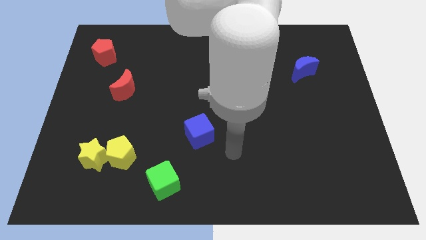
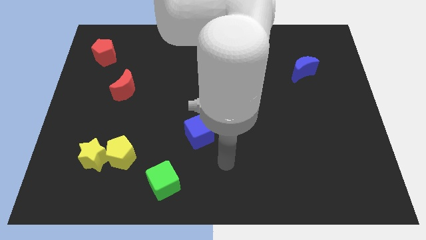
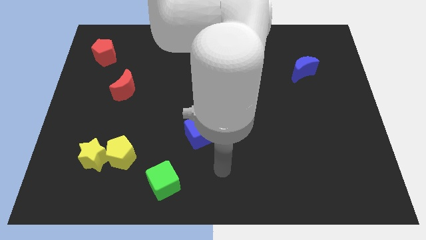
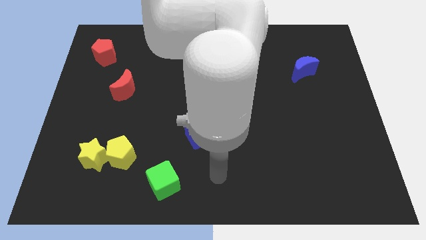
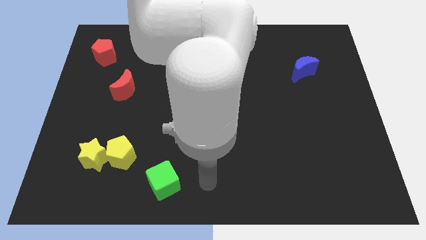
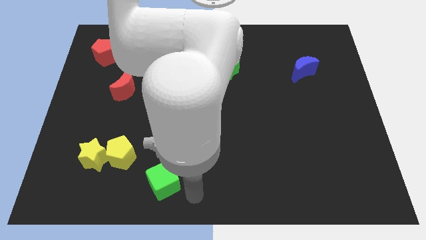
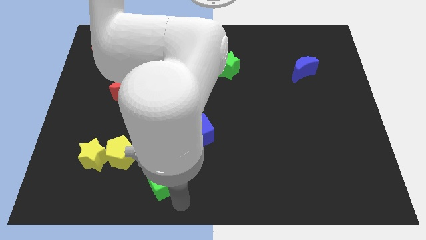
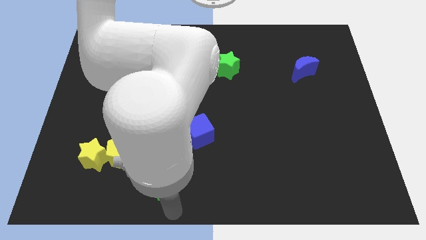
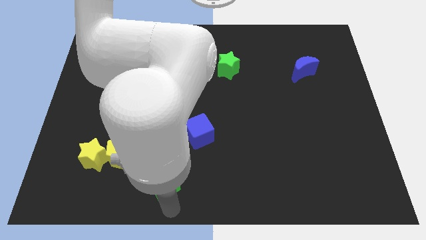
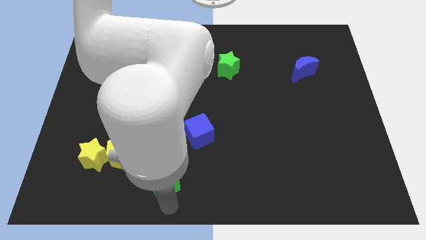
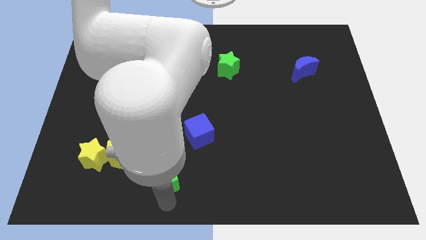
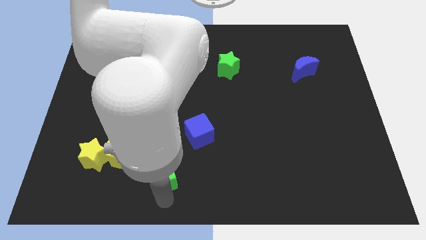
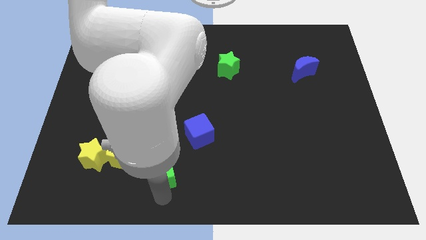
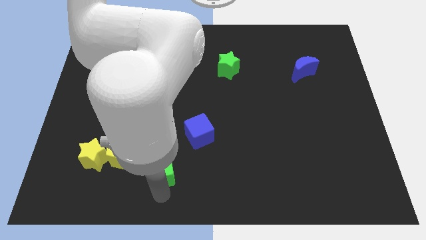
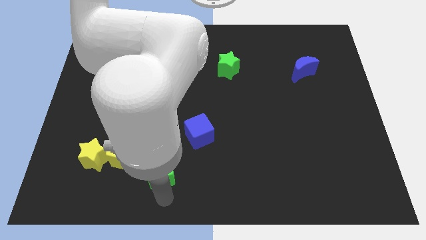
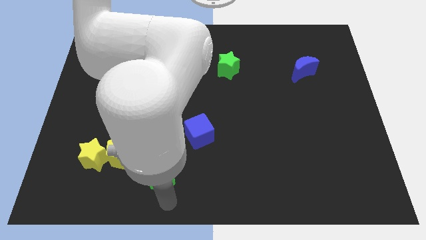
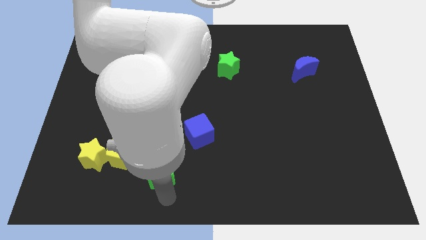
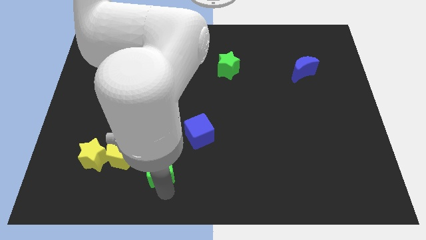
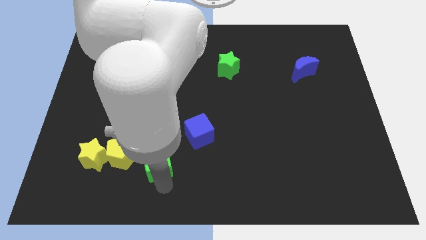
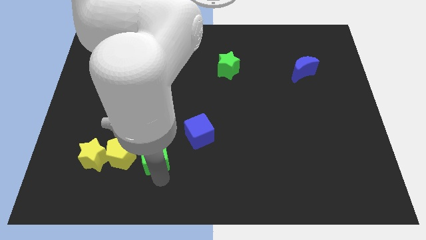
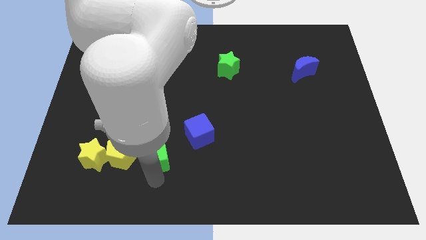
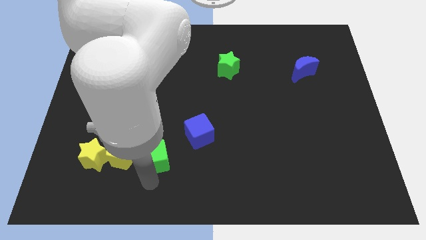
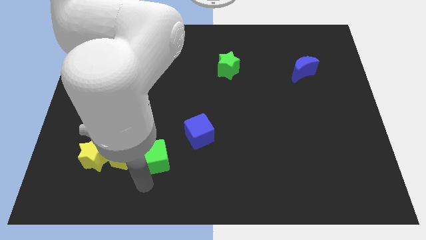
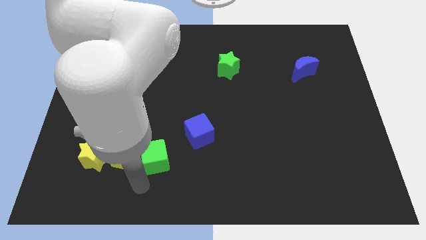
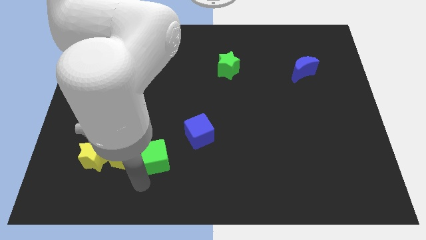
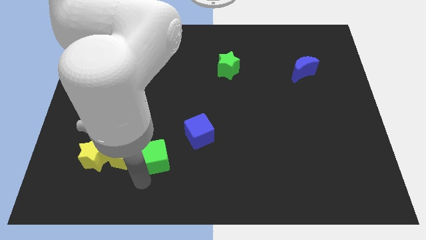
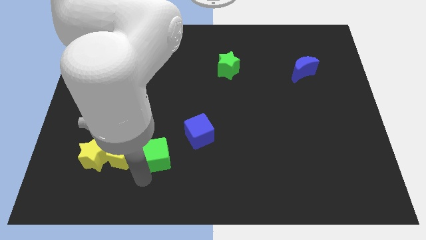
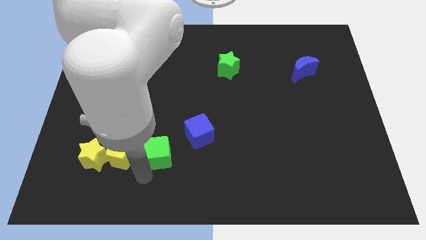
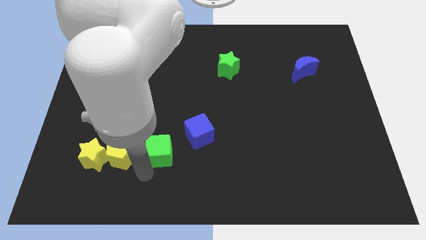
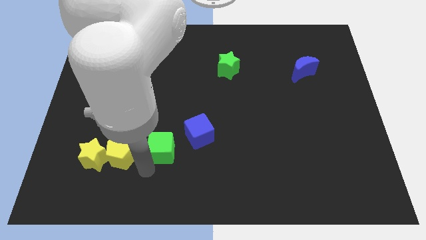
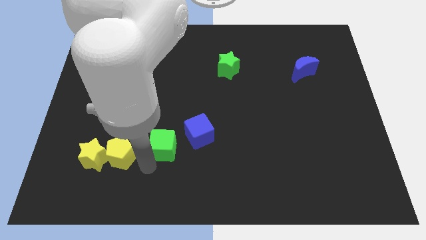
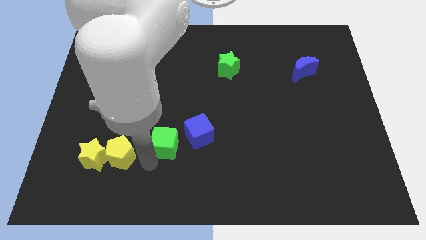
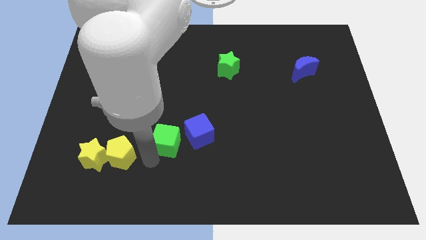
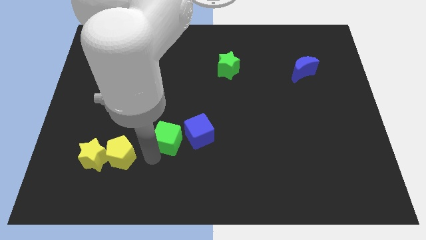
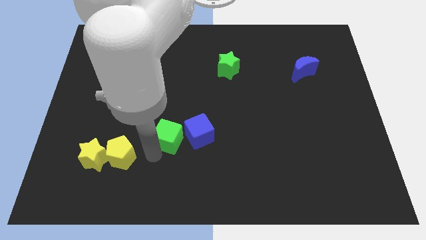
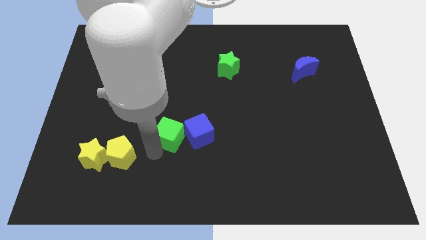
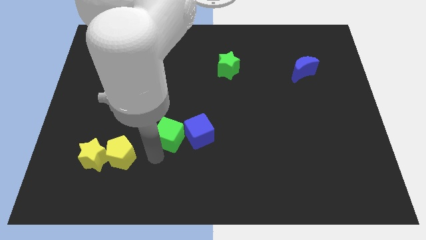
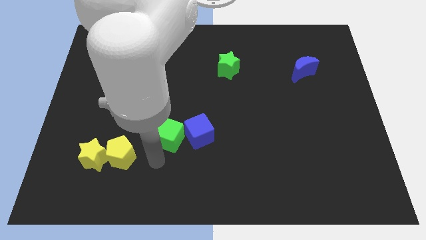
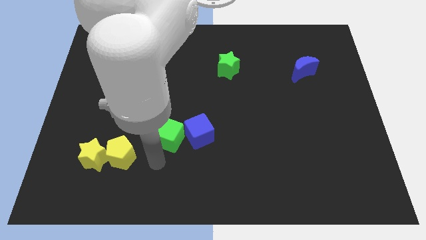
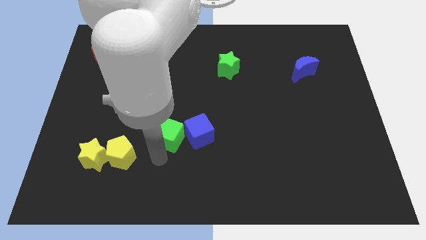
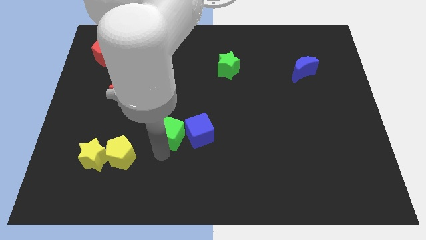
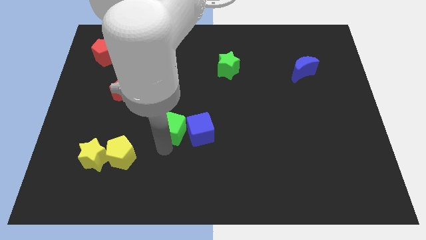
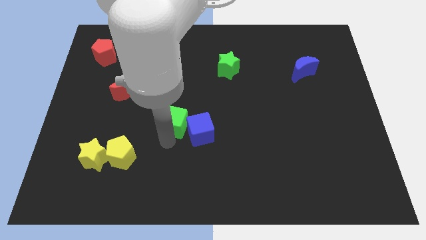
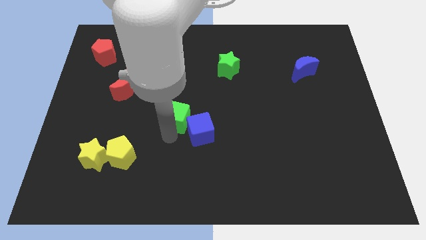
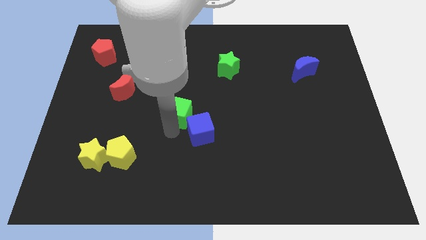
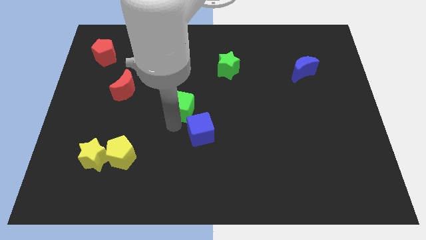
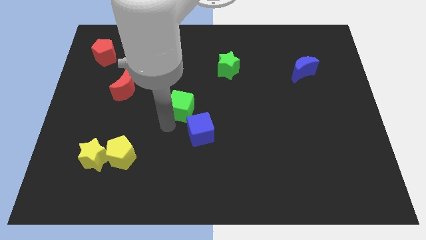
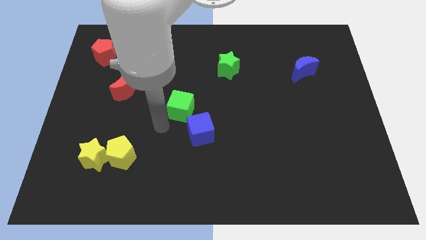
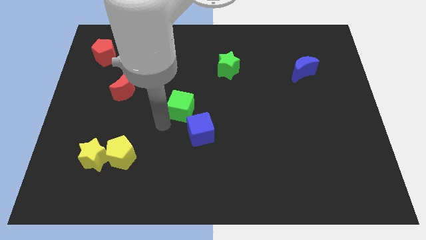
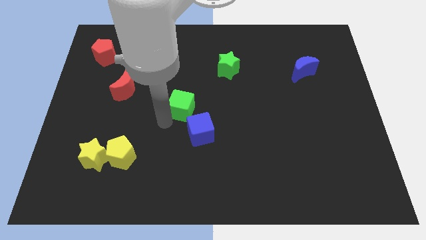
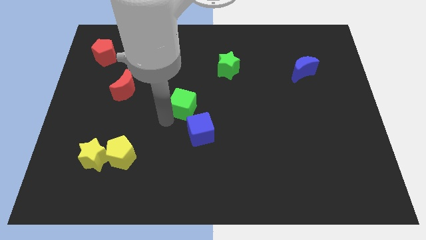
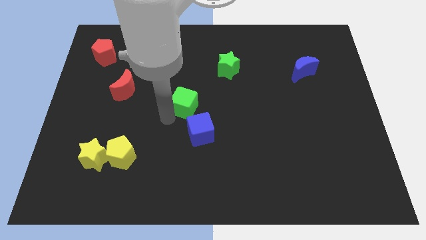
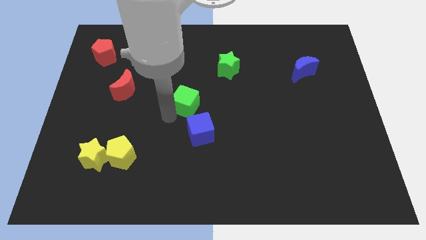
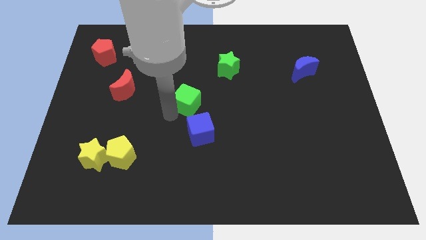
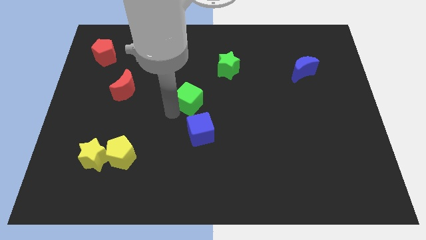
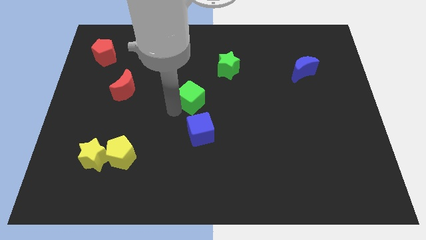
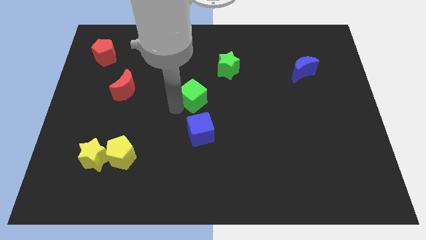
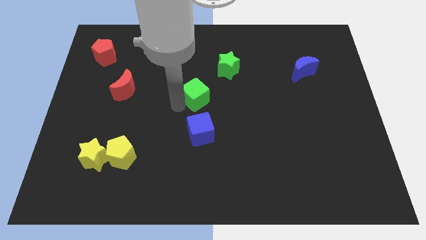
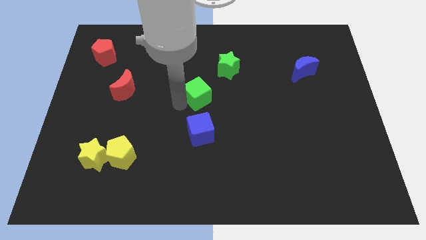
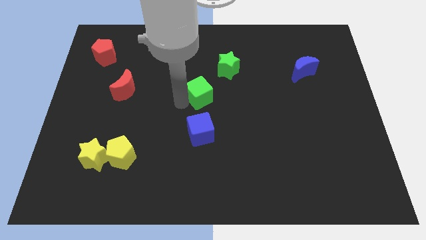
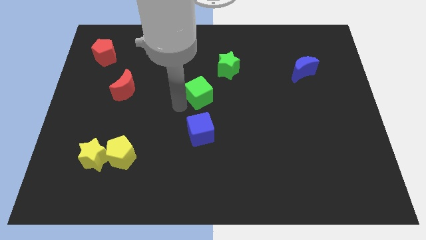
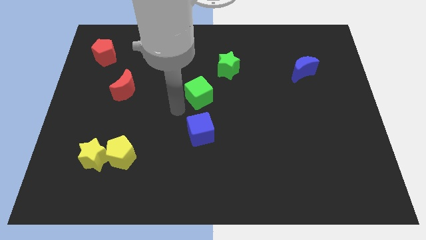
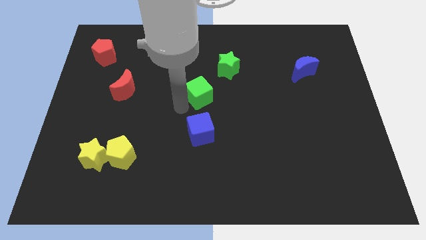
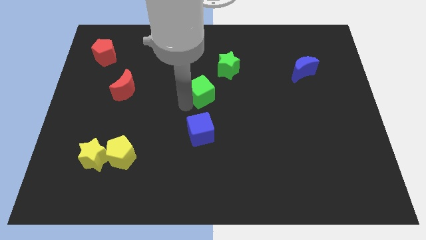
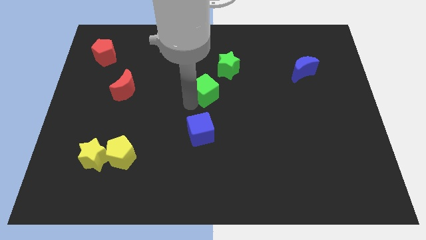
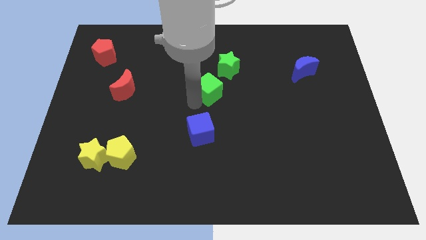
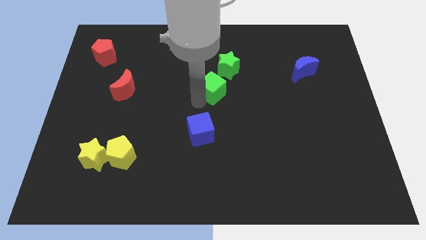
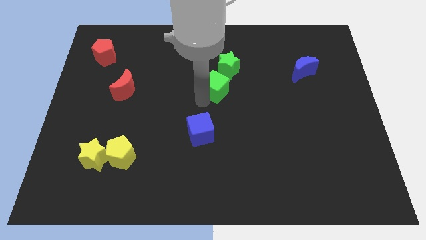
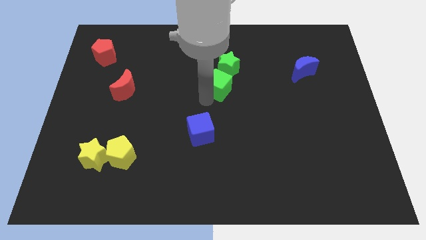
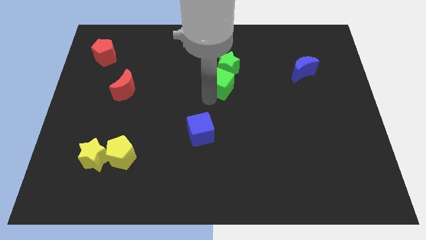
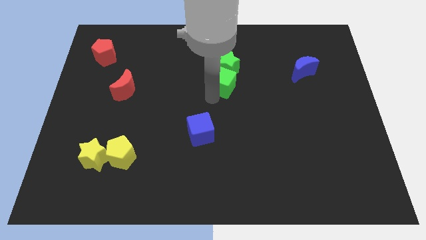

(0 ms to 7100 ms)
put the green cube towards the green star

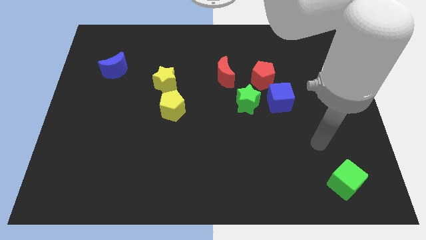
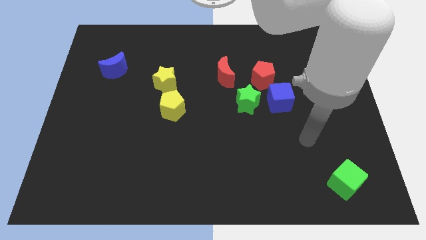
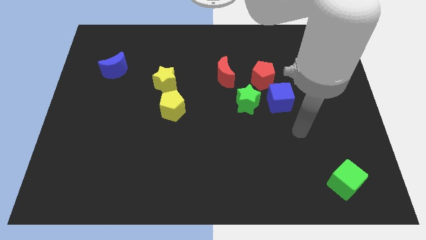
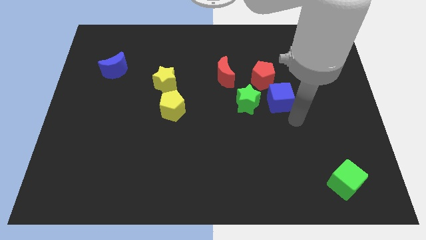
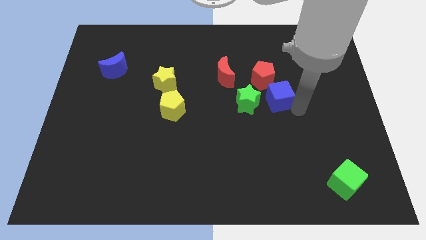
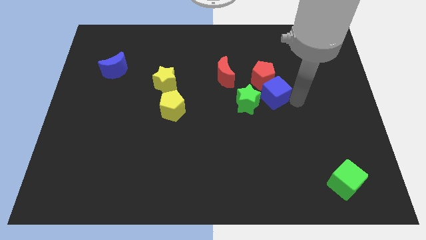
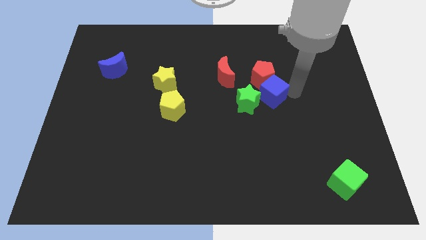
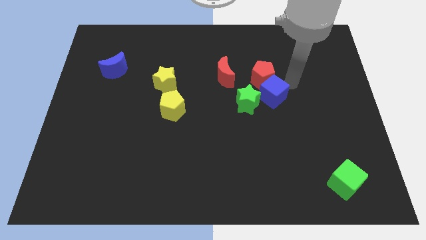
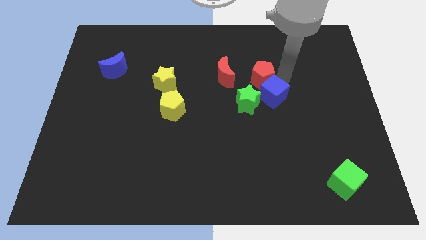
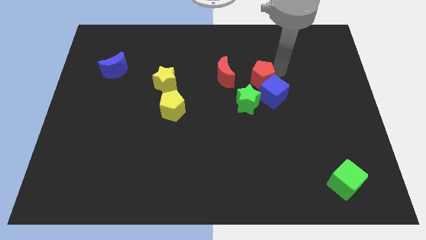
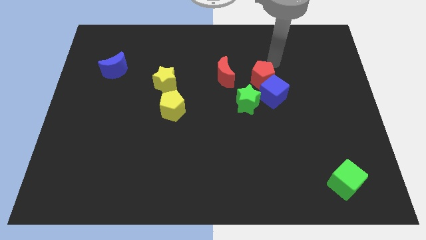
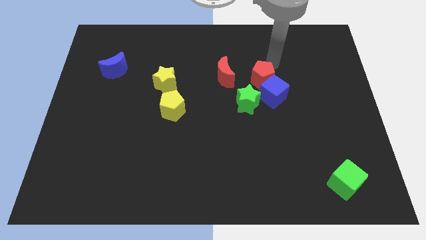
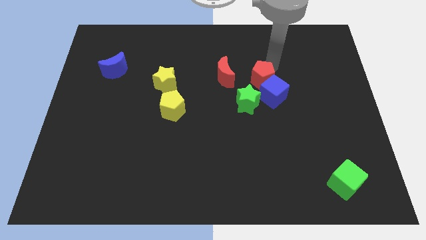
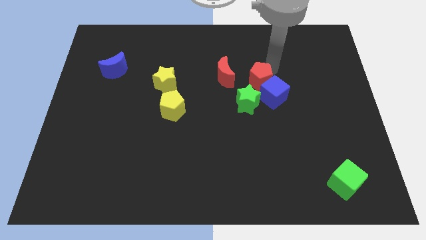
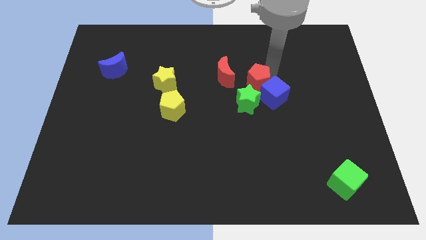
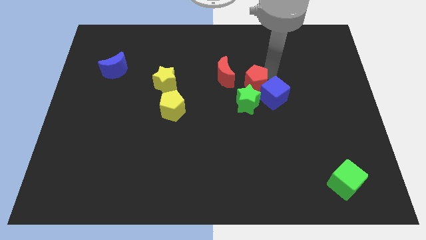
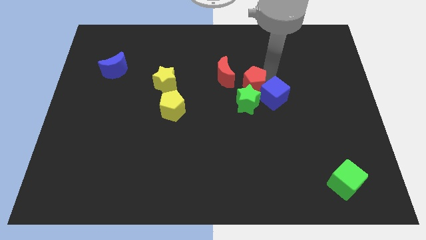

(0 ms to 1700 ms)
slide the red pentagon towards the green star
